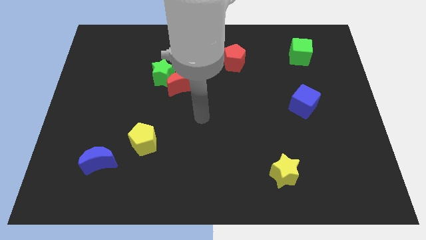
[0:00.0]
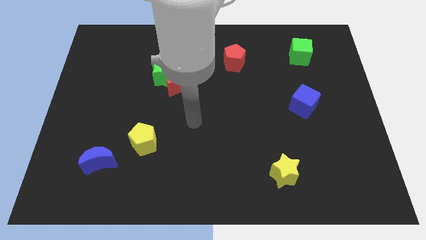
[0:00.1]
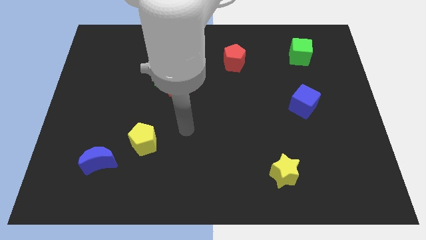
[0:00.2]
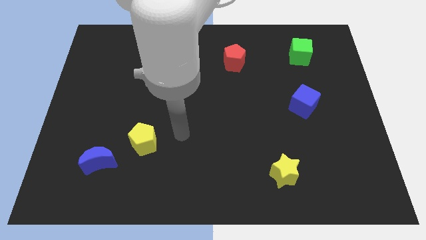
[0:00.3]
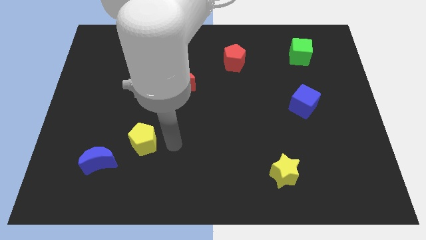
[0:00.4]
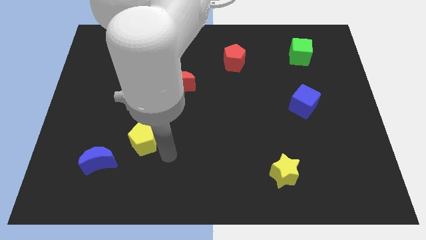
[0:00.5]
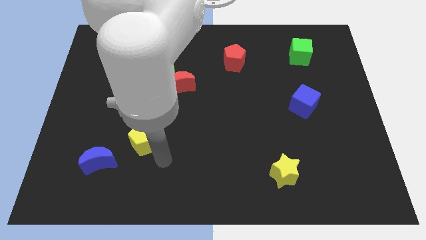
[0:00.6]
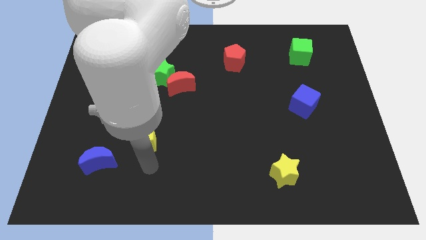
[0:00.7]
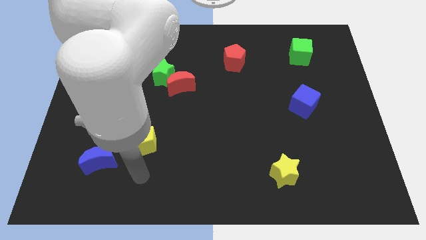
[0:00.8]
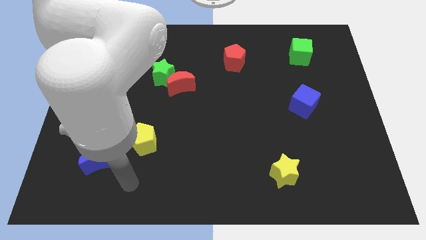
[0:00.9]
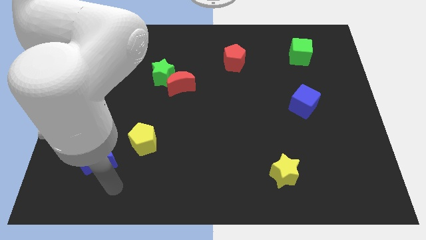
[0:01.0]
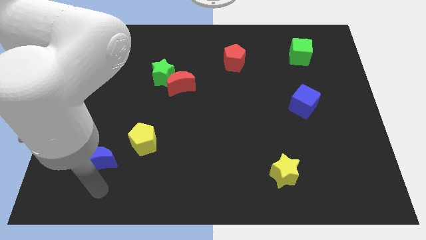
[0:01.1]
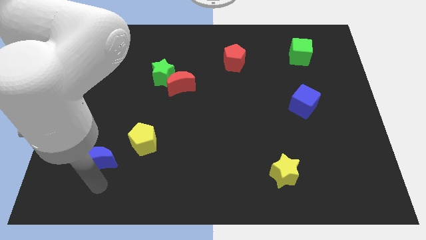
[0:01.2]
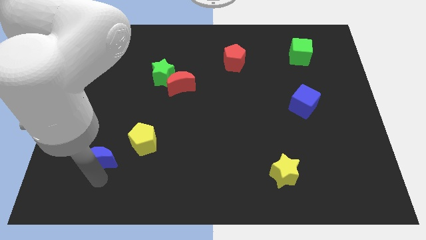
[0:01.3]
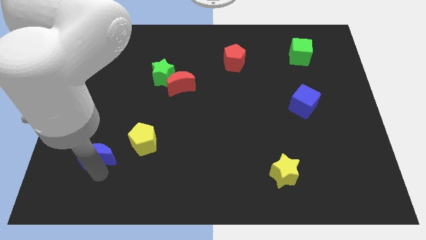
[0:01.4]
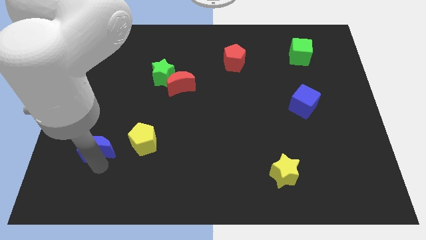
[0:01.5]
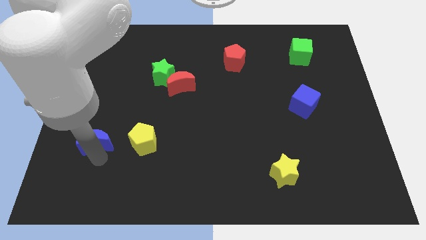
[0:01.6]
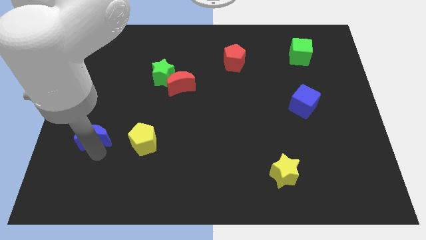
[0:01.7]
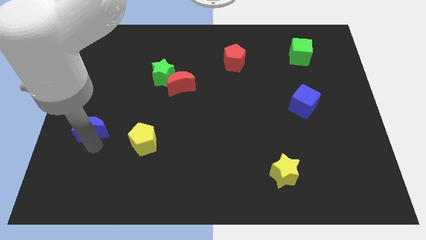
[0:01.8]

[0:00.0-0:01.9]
push the blue moon a little up

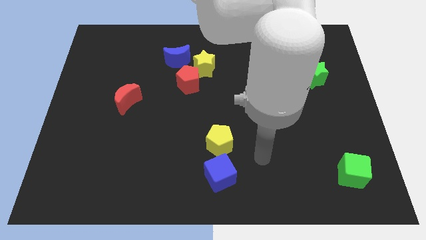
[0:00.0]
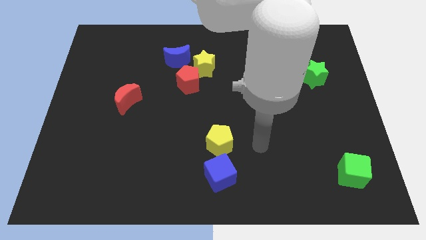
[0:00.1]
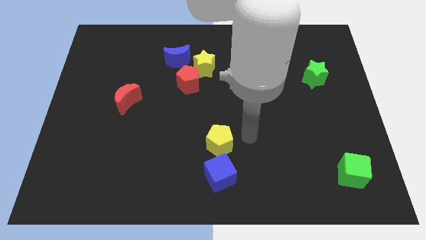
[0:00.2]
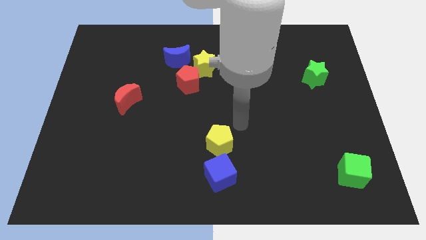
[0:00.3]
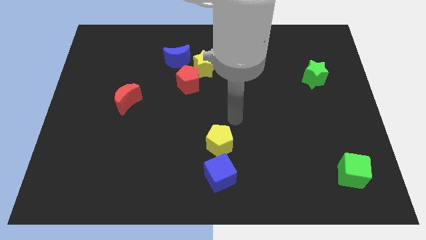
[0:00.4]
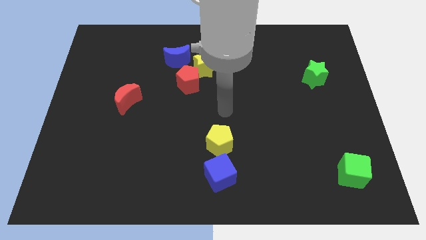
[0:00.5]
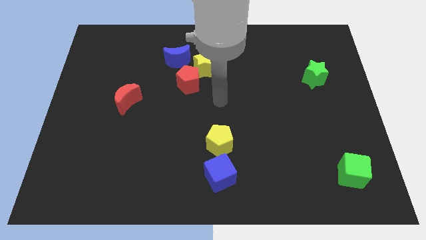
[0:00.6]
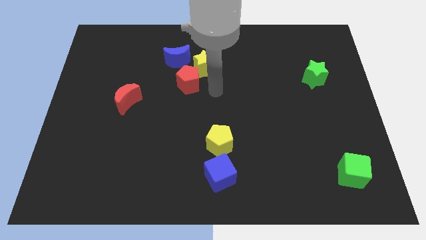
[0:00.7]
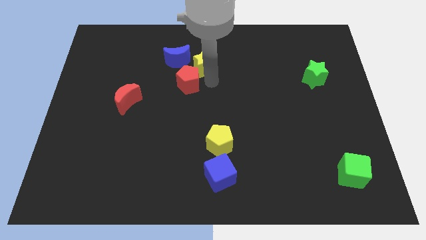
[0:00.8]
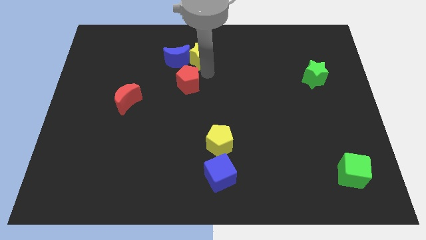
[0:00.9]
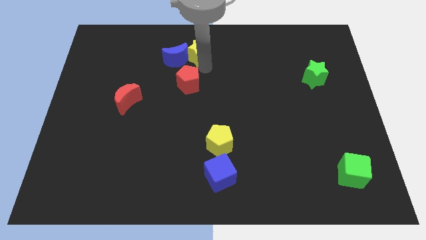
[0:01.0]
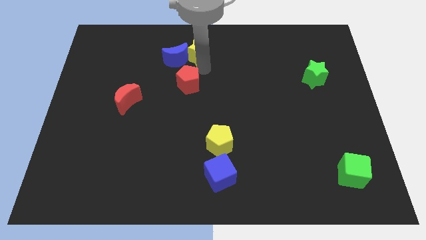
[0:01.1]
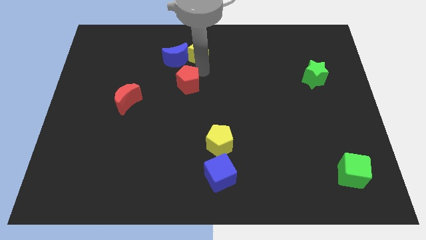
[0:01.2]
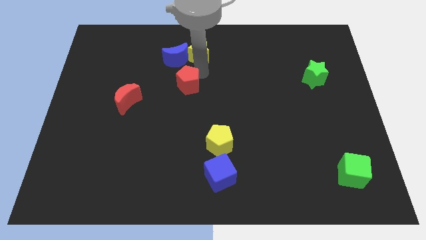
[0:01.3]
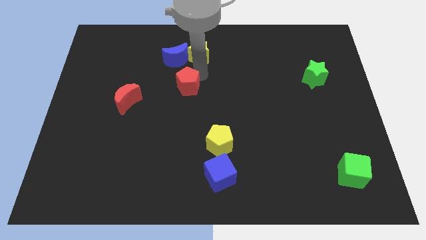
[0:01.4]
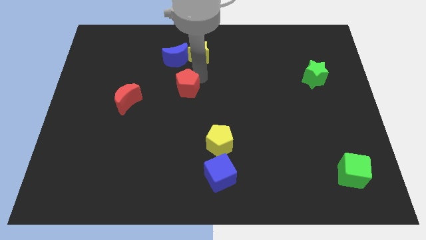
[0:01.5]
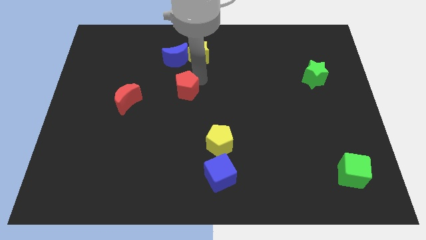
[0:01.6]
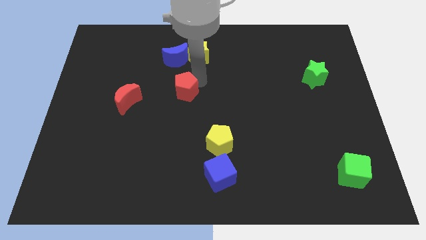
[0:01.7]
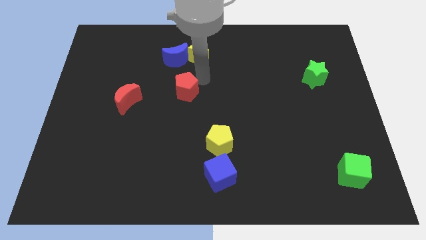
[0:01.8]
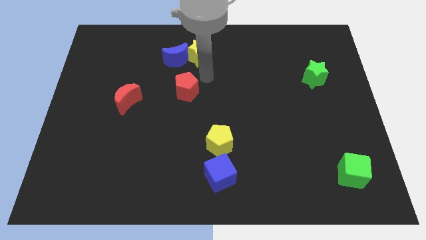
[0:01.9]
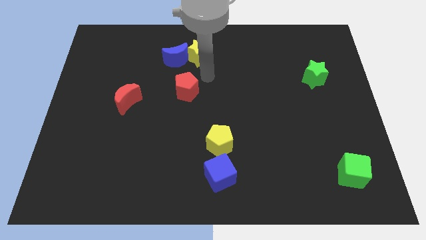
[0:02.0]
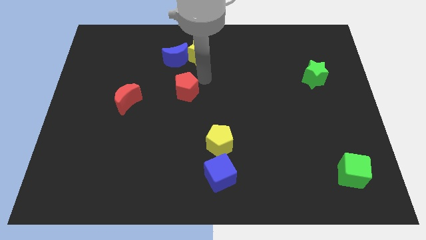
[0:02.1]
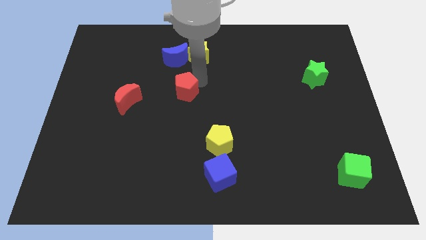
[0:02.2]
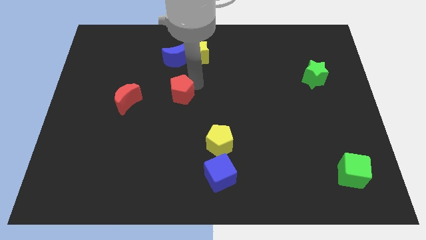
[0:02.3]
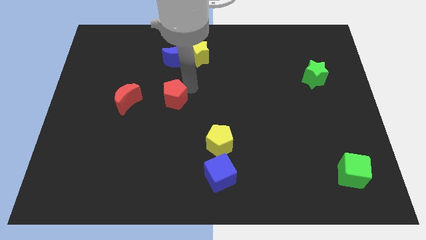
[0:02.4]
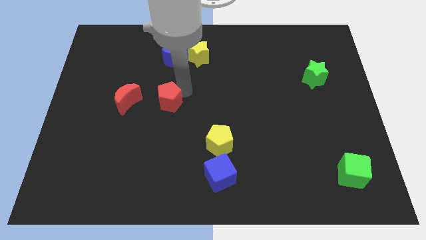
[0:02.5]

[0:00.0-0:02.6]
move the red pentagon a bit down and then left

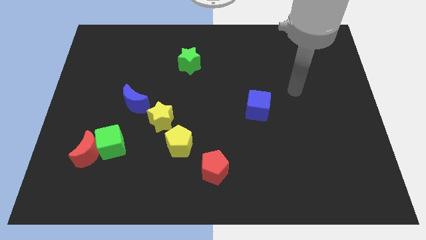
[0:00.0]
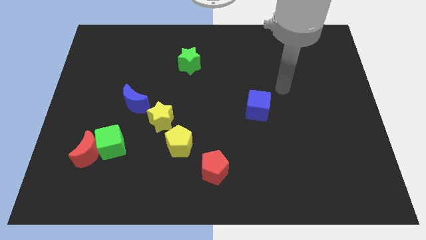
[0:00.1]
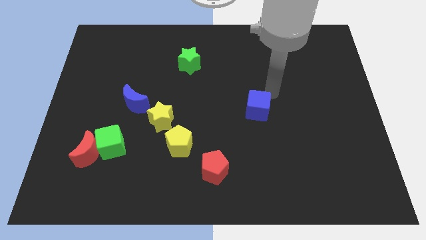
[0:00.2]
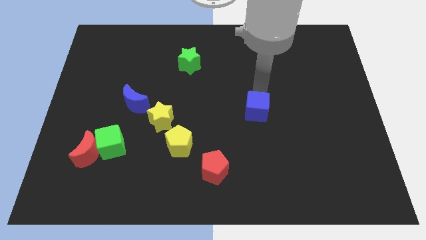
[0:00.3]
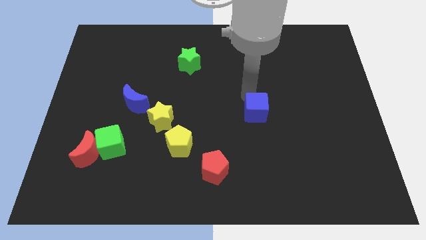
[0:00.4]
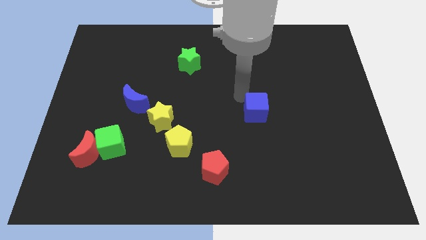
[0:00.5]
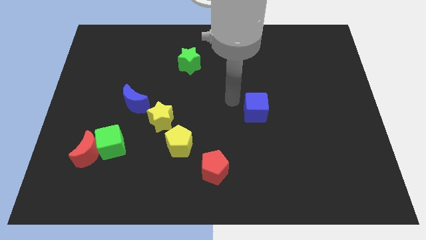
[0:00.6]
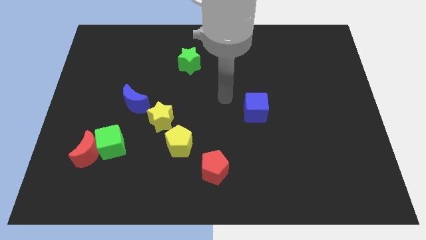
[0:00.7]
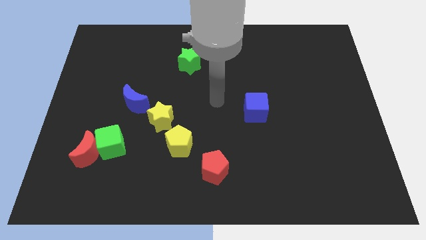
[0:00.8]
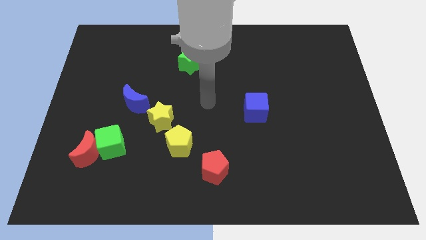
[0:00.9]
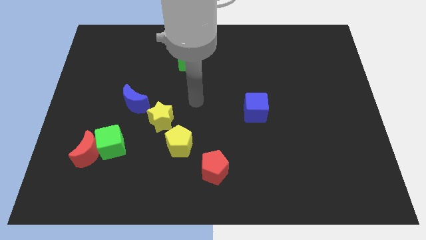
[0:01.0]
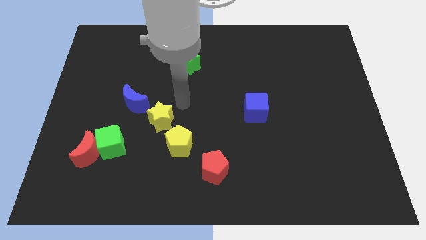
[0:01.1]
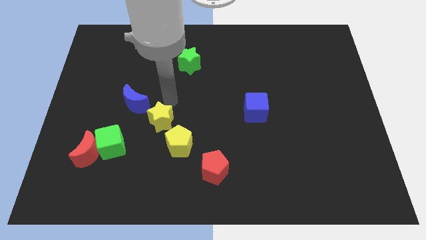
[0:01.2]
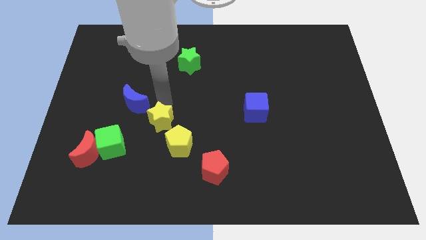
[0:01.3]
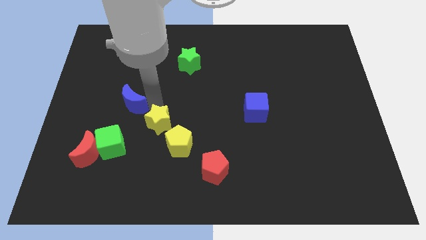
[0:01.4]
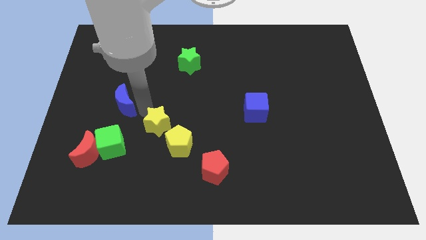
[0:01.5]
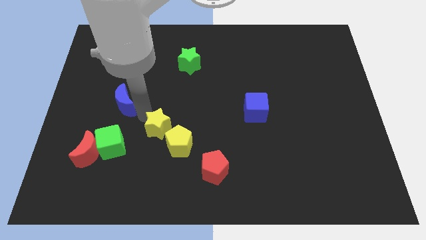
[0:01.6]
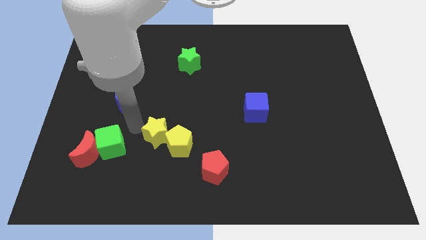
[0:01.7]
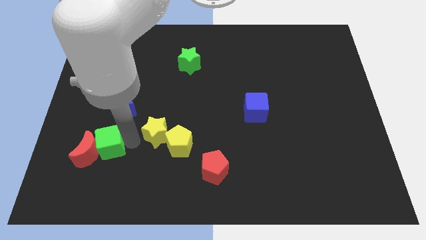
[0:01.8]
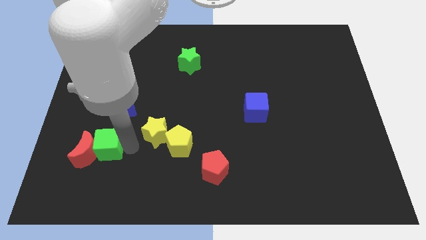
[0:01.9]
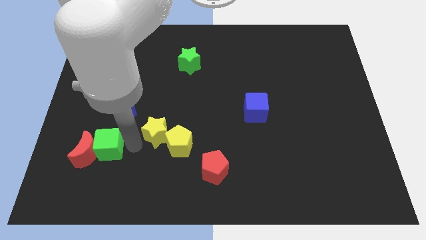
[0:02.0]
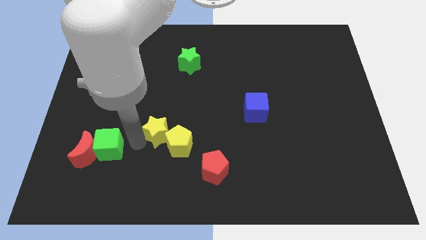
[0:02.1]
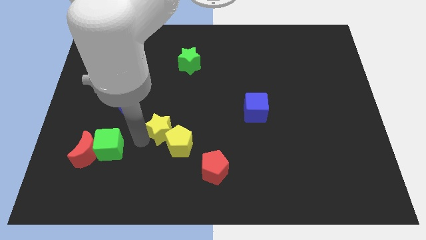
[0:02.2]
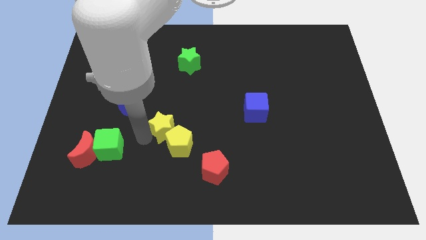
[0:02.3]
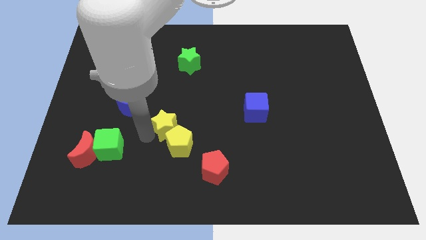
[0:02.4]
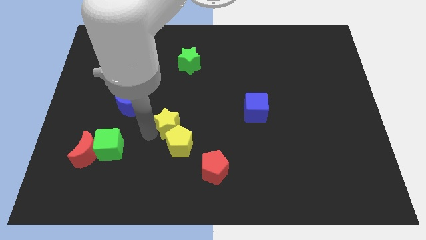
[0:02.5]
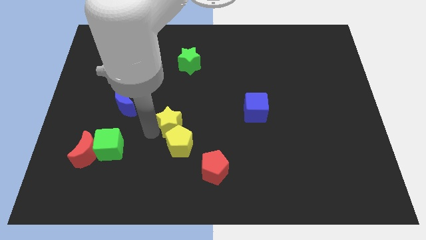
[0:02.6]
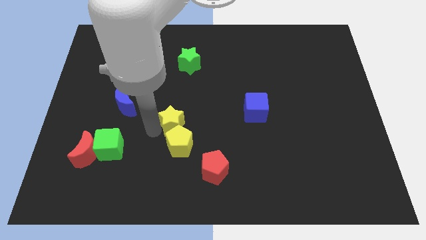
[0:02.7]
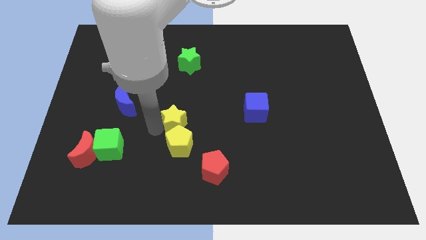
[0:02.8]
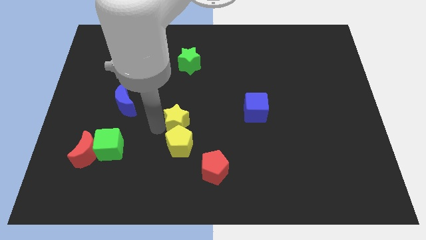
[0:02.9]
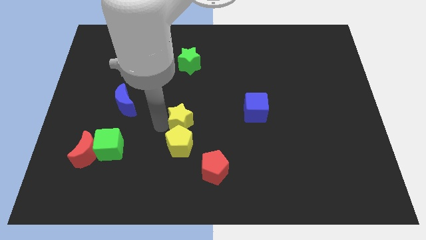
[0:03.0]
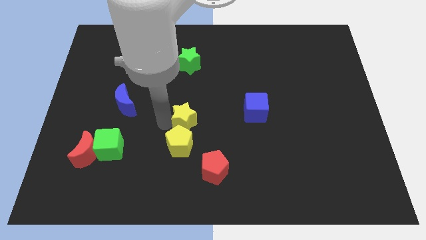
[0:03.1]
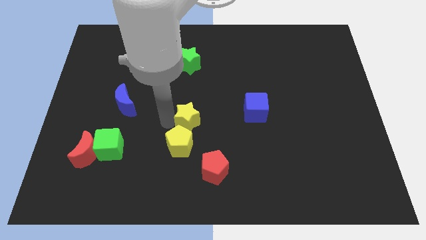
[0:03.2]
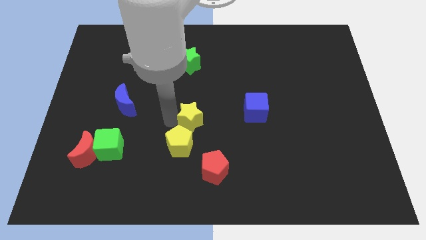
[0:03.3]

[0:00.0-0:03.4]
push the yellow star right a bit

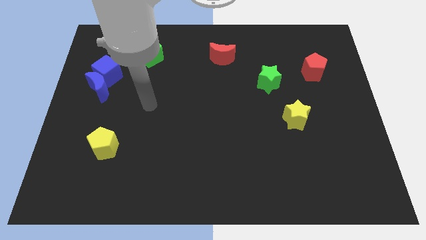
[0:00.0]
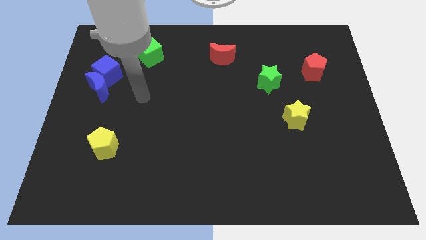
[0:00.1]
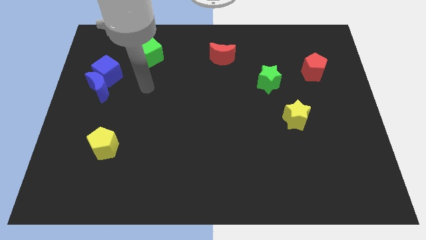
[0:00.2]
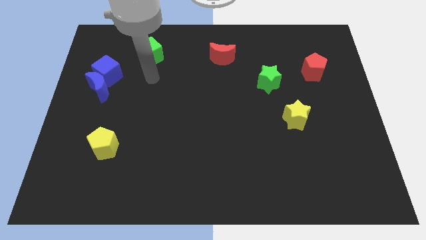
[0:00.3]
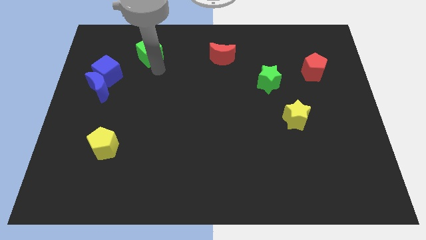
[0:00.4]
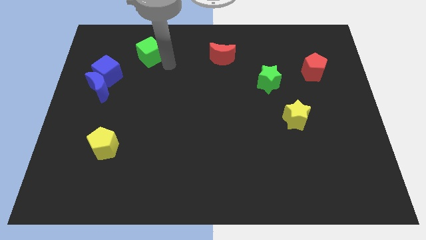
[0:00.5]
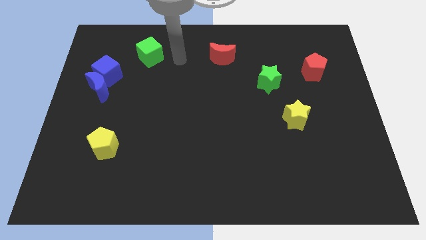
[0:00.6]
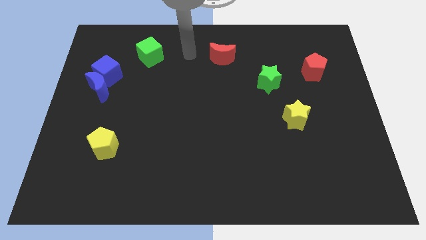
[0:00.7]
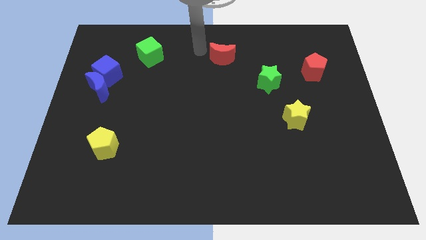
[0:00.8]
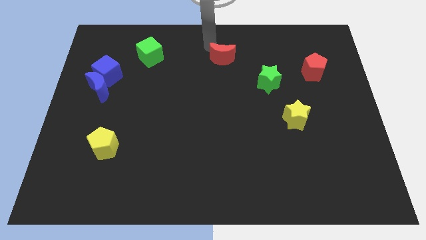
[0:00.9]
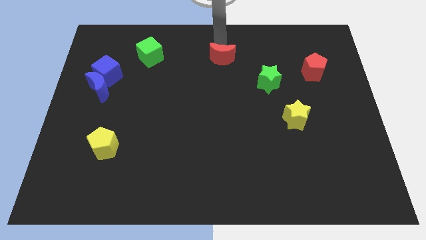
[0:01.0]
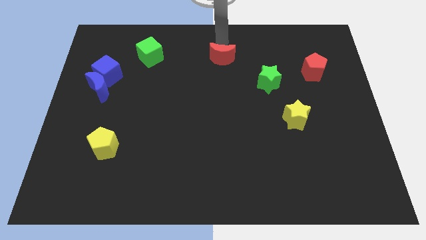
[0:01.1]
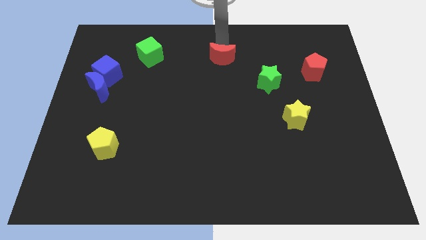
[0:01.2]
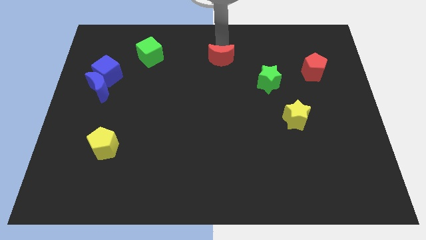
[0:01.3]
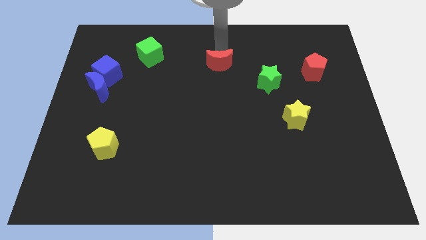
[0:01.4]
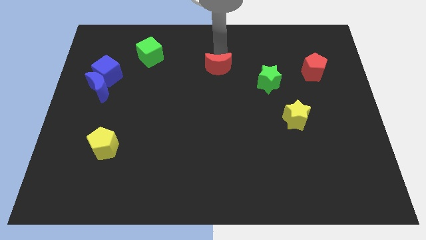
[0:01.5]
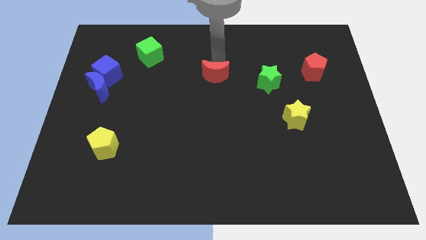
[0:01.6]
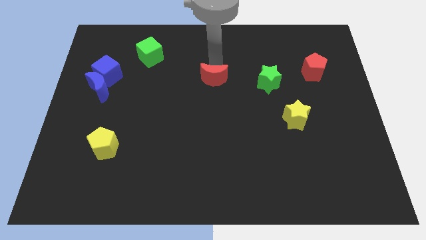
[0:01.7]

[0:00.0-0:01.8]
move the red moon down a little
